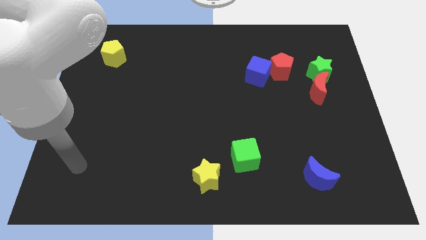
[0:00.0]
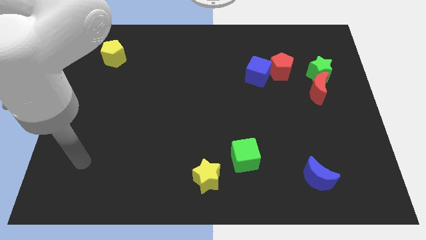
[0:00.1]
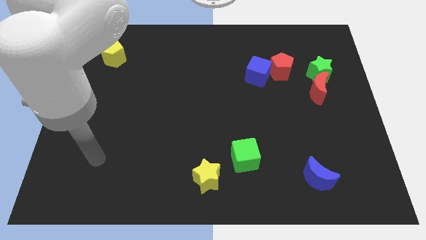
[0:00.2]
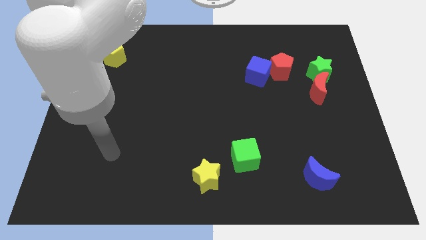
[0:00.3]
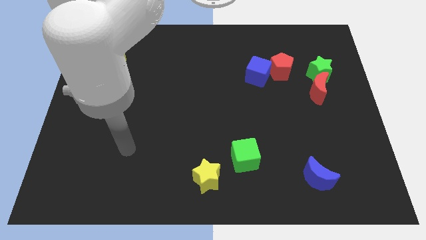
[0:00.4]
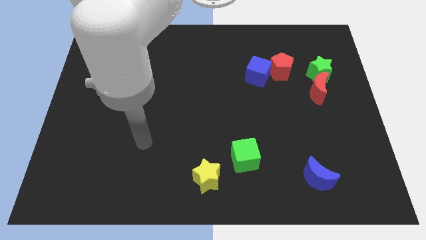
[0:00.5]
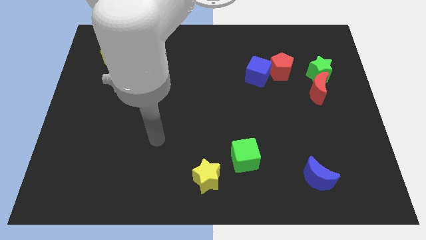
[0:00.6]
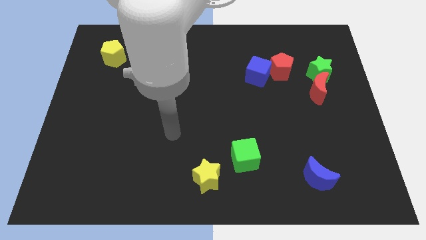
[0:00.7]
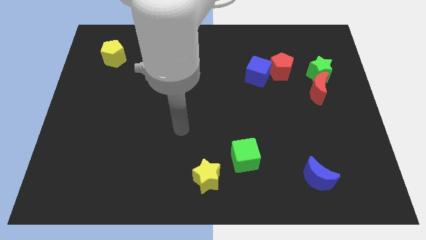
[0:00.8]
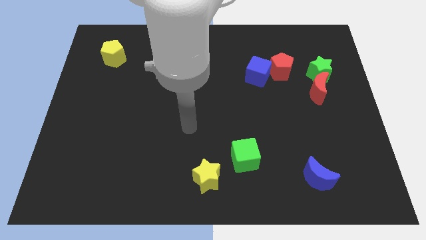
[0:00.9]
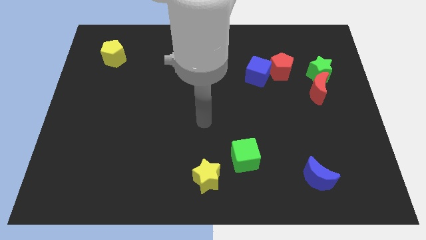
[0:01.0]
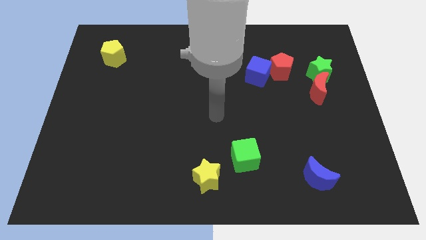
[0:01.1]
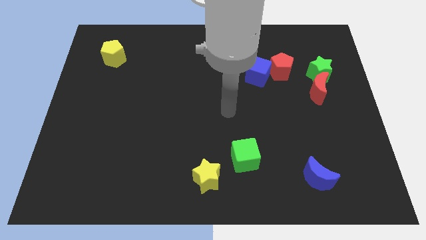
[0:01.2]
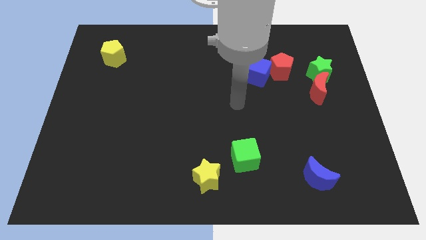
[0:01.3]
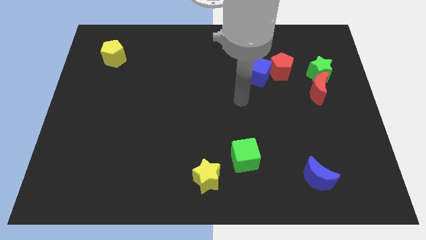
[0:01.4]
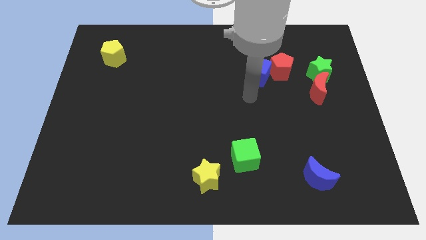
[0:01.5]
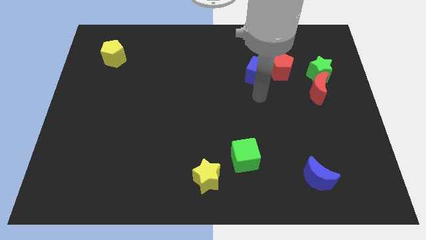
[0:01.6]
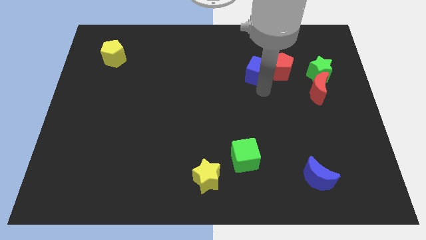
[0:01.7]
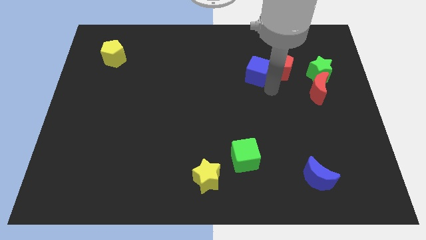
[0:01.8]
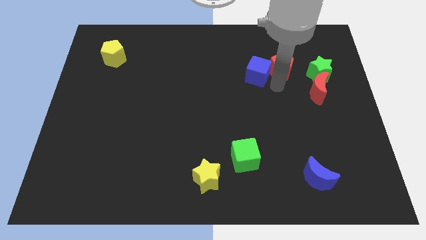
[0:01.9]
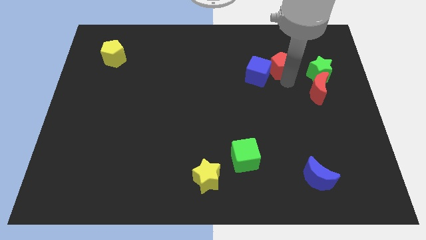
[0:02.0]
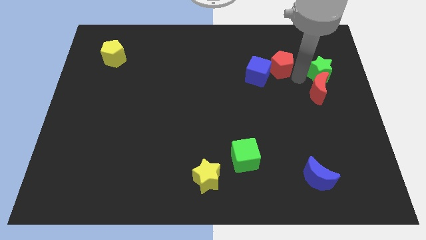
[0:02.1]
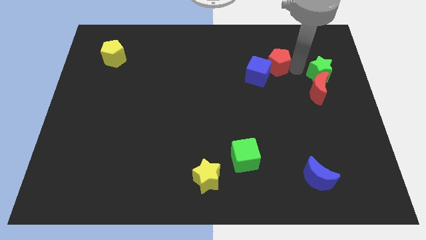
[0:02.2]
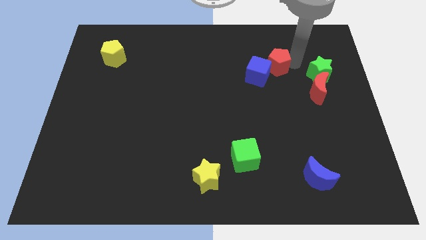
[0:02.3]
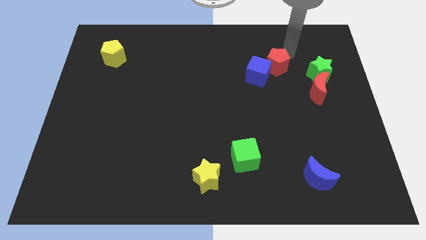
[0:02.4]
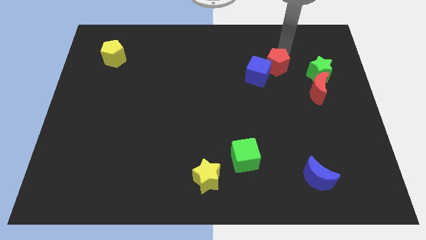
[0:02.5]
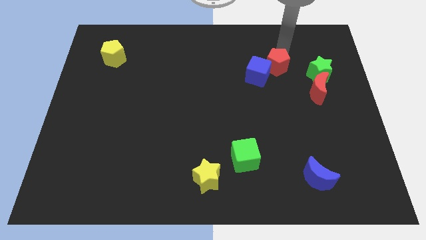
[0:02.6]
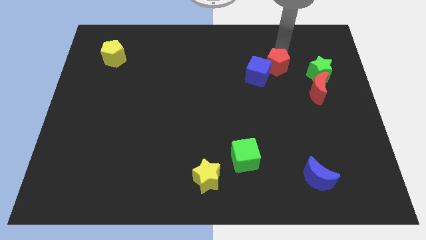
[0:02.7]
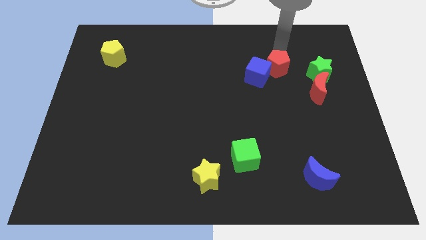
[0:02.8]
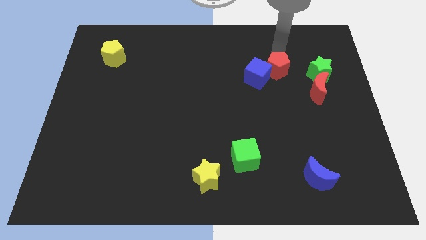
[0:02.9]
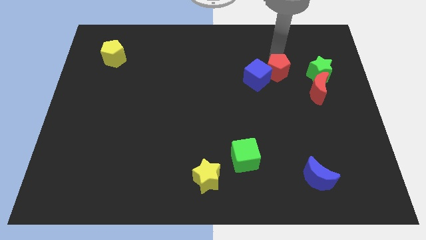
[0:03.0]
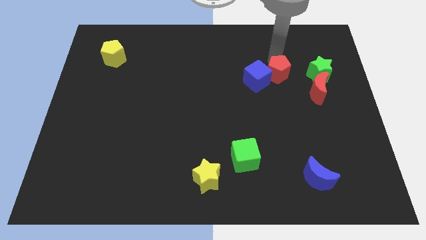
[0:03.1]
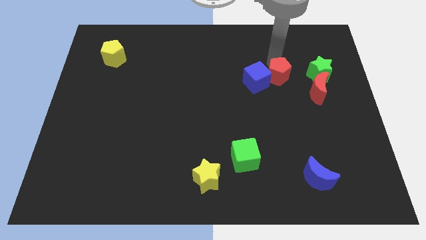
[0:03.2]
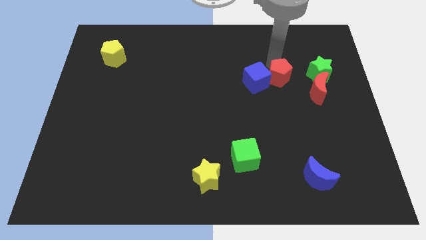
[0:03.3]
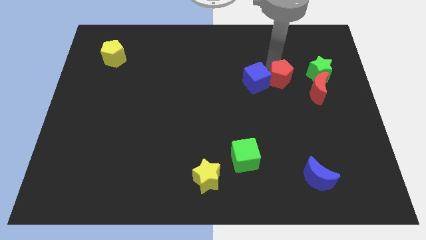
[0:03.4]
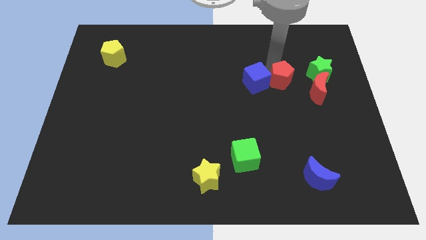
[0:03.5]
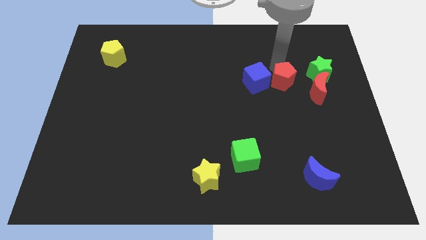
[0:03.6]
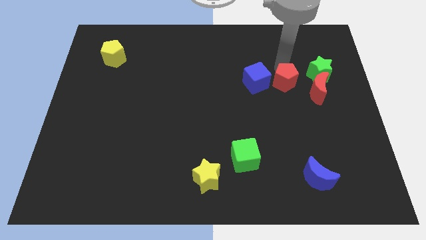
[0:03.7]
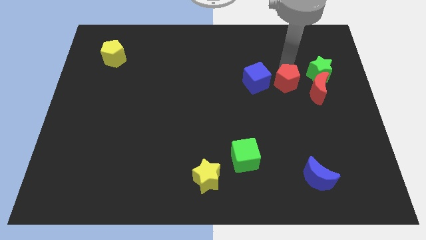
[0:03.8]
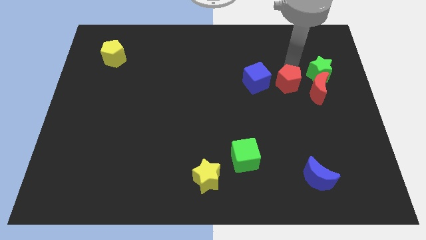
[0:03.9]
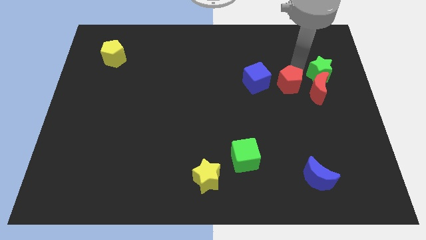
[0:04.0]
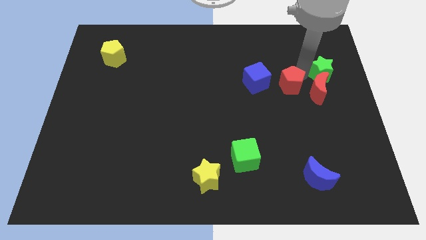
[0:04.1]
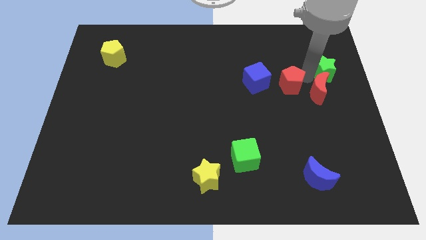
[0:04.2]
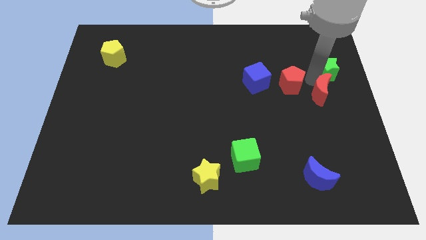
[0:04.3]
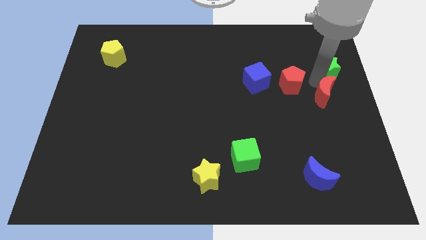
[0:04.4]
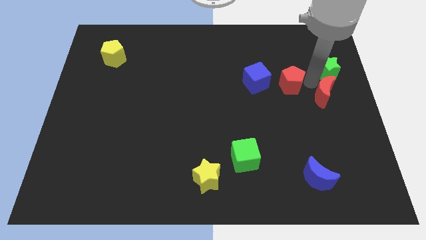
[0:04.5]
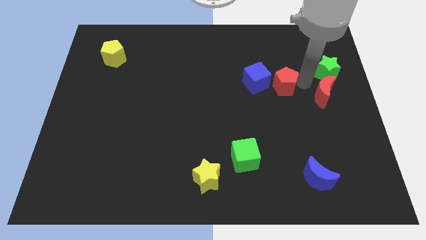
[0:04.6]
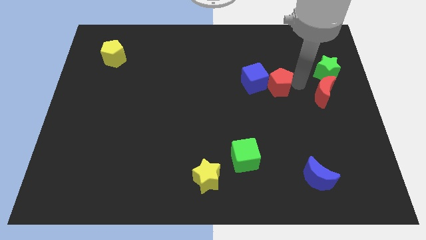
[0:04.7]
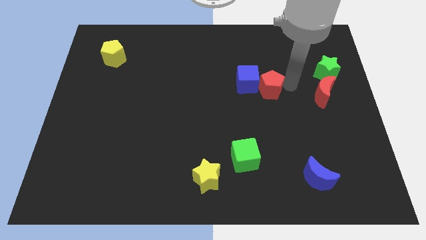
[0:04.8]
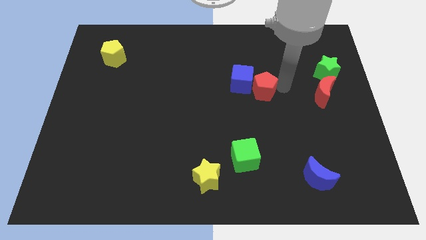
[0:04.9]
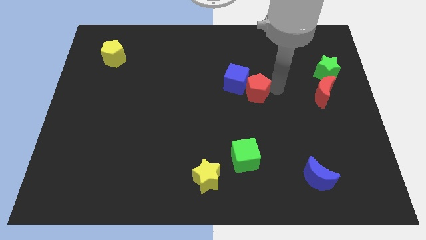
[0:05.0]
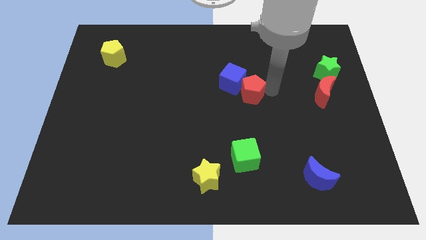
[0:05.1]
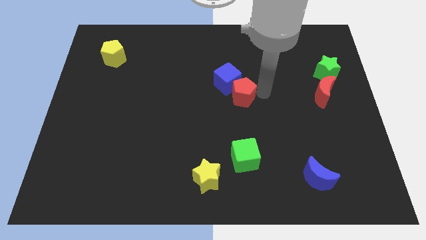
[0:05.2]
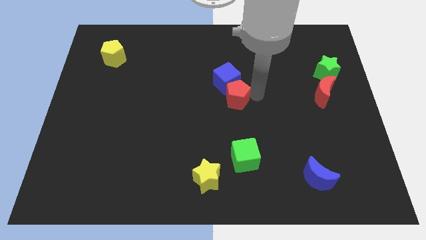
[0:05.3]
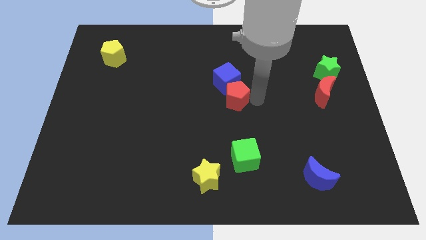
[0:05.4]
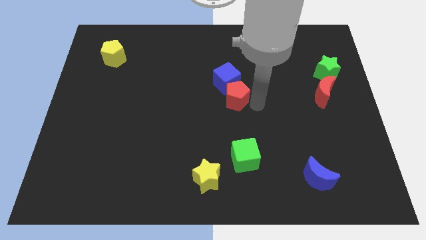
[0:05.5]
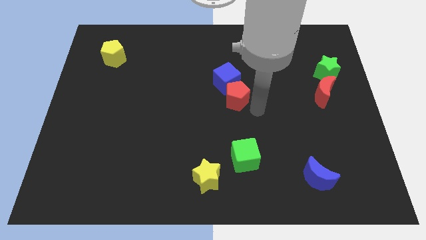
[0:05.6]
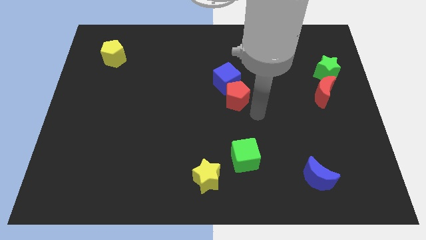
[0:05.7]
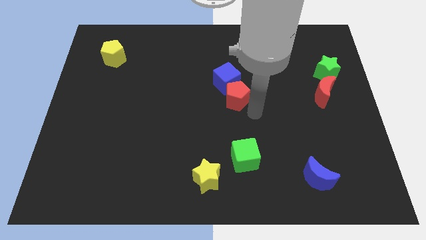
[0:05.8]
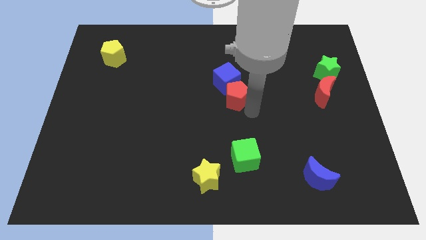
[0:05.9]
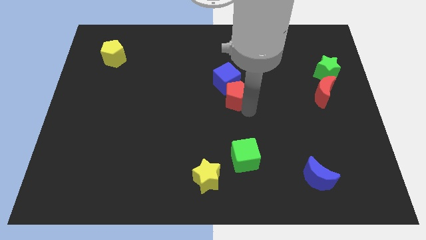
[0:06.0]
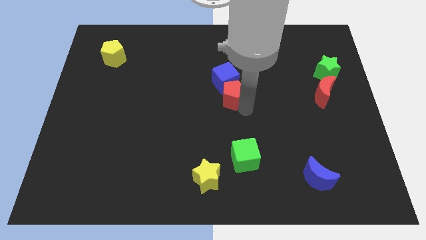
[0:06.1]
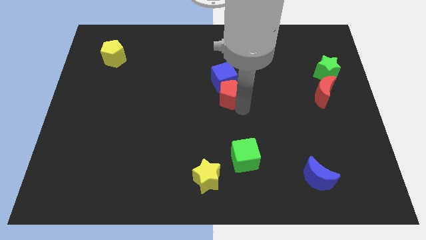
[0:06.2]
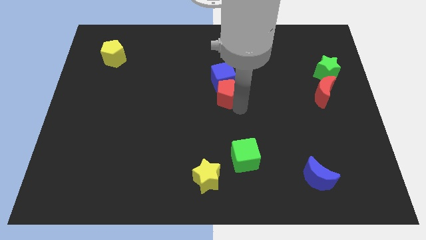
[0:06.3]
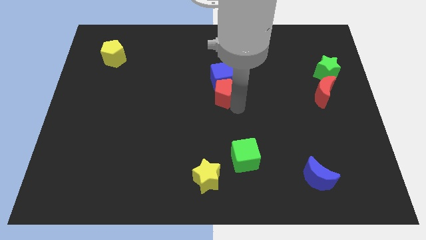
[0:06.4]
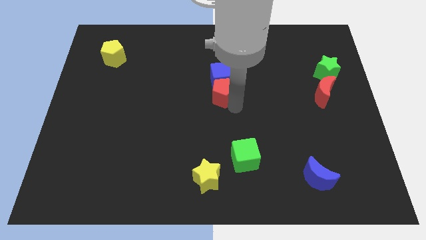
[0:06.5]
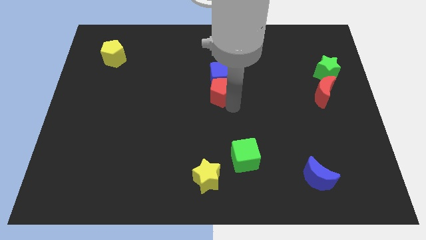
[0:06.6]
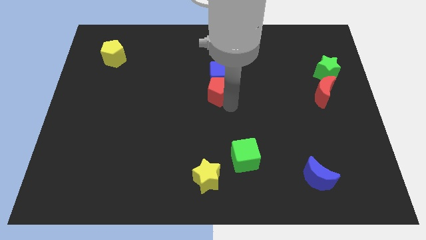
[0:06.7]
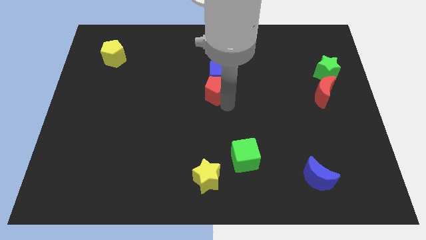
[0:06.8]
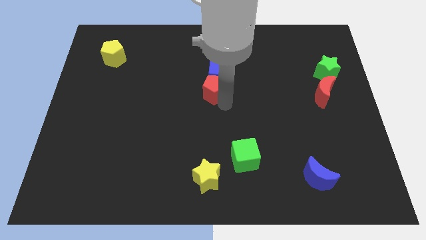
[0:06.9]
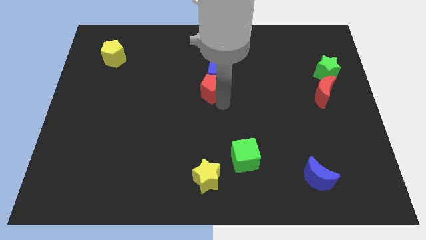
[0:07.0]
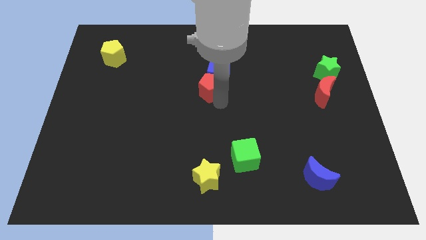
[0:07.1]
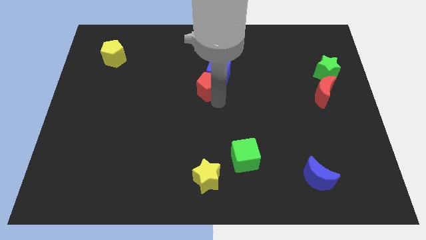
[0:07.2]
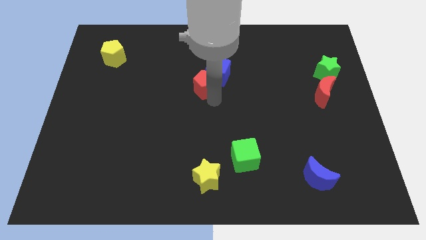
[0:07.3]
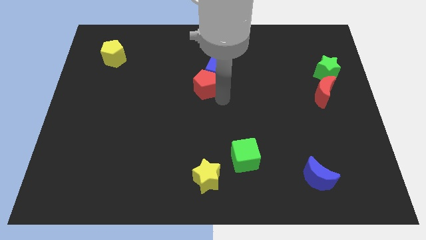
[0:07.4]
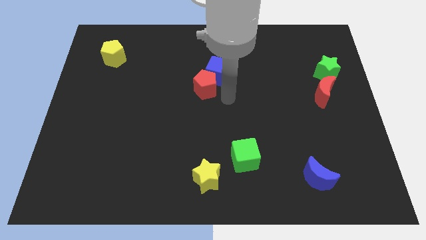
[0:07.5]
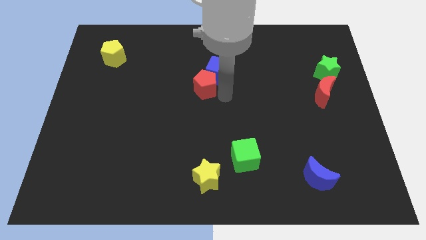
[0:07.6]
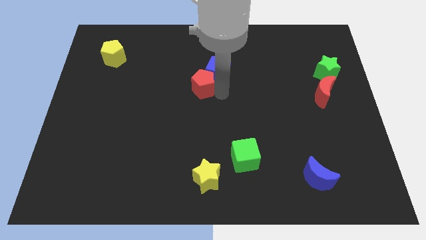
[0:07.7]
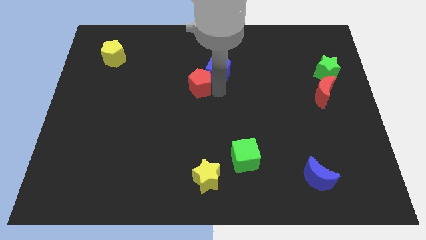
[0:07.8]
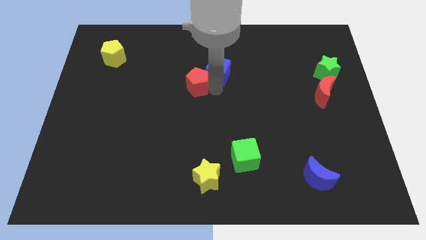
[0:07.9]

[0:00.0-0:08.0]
slide the red pentagon left
